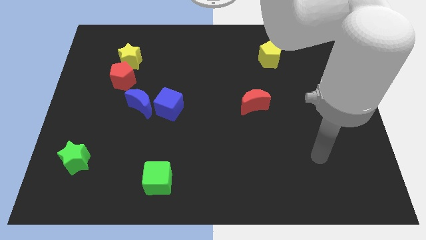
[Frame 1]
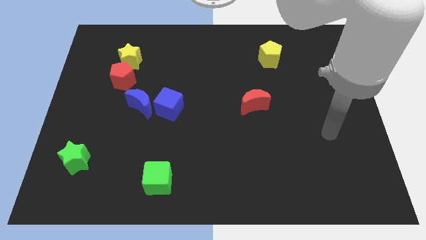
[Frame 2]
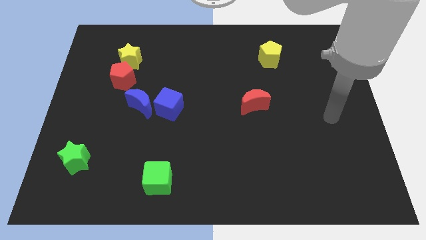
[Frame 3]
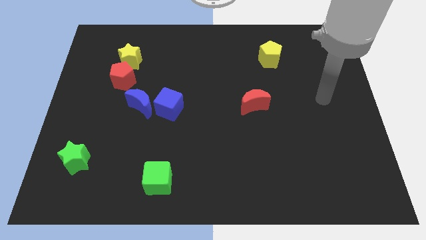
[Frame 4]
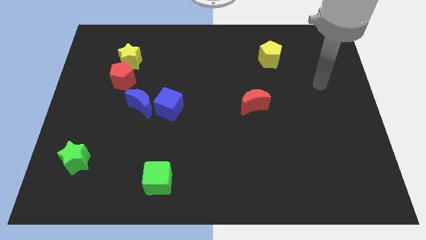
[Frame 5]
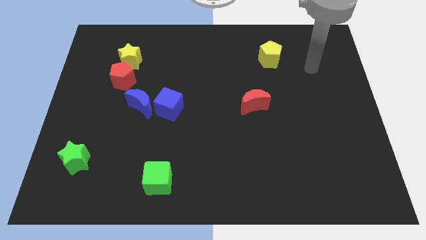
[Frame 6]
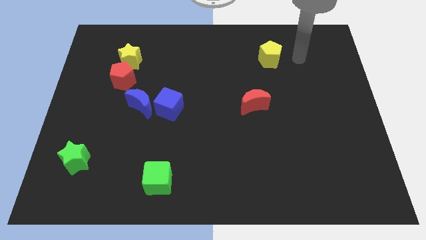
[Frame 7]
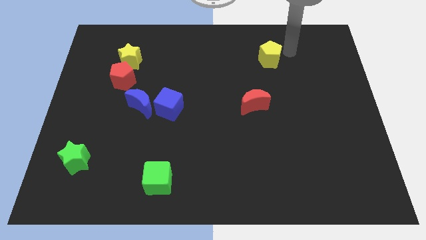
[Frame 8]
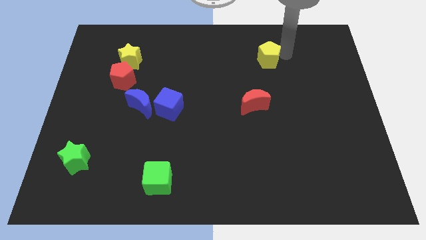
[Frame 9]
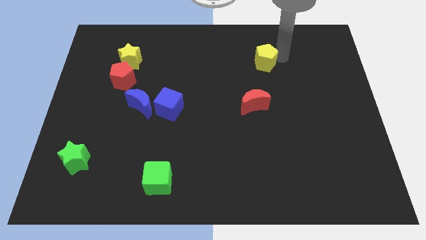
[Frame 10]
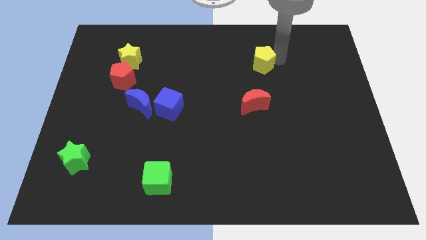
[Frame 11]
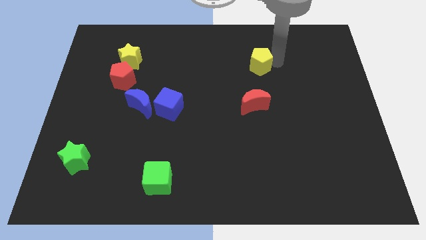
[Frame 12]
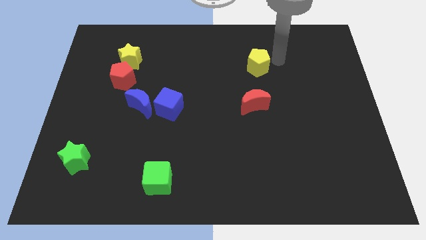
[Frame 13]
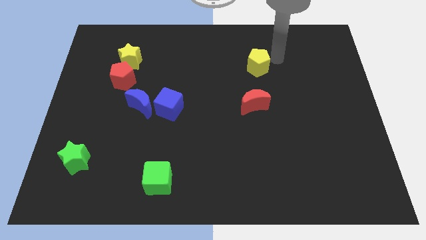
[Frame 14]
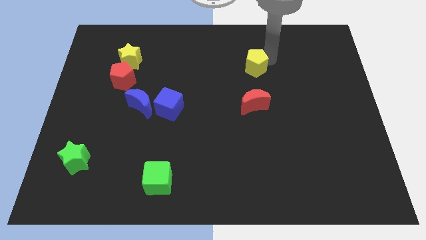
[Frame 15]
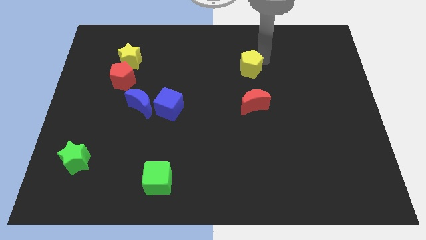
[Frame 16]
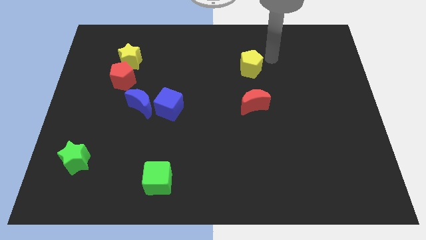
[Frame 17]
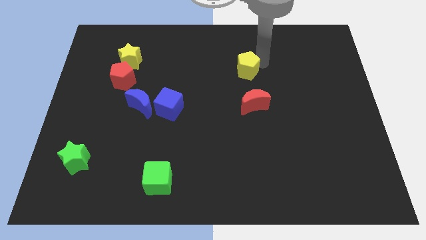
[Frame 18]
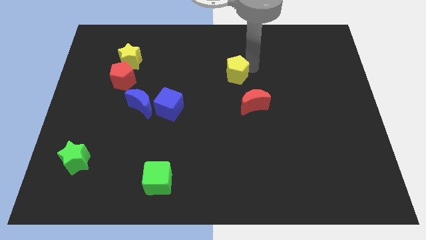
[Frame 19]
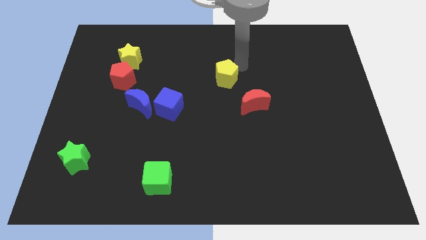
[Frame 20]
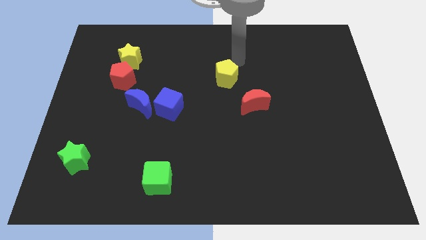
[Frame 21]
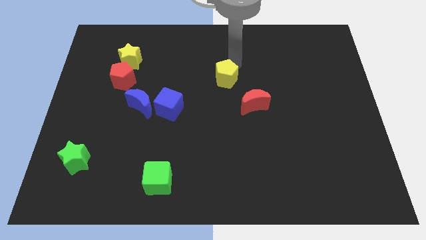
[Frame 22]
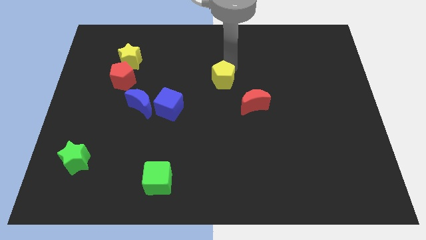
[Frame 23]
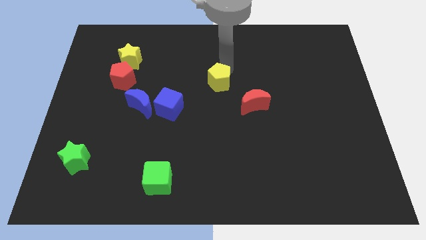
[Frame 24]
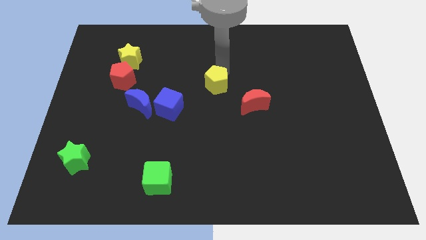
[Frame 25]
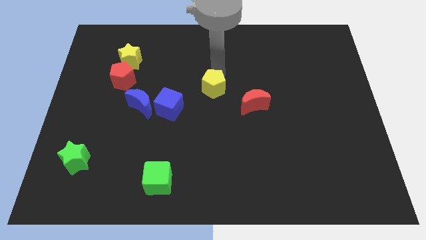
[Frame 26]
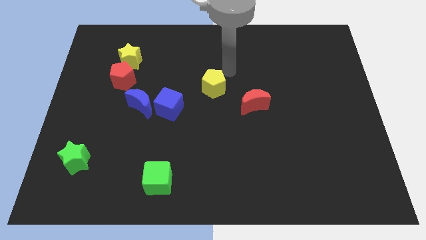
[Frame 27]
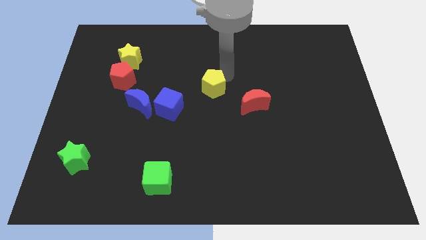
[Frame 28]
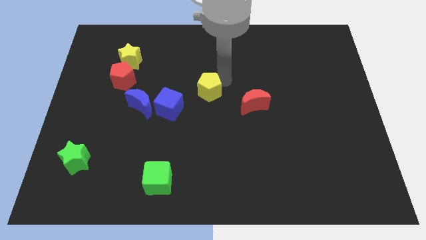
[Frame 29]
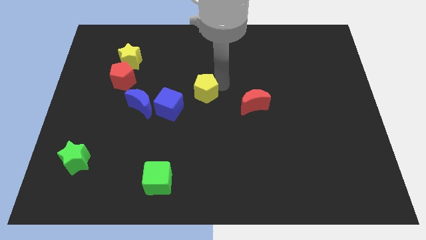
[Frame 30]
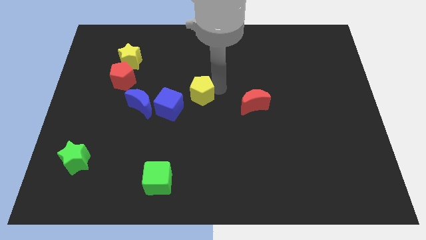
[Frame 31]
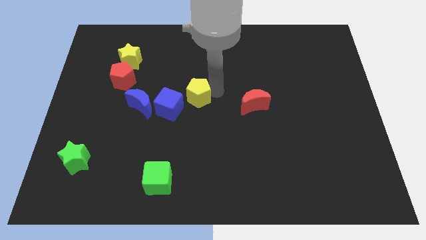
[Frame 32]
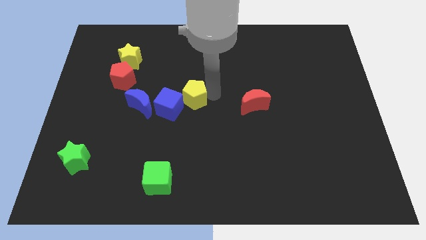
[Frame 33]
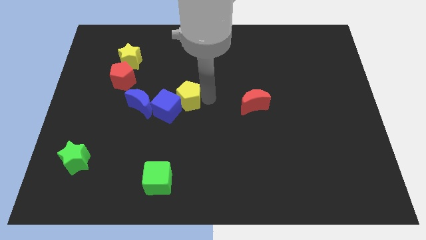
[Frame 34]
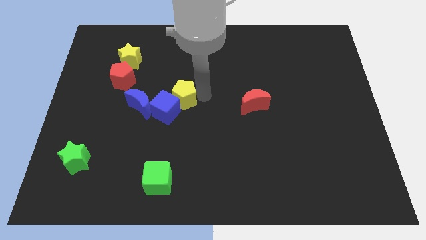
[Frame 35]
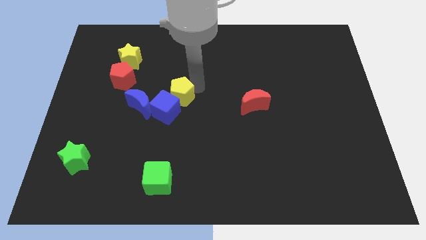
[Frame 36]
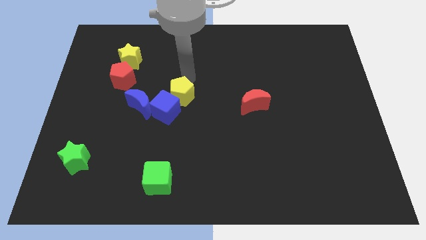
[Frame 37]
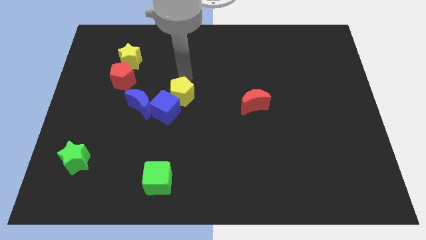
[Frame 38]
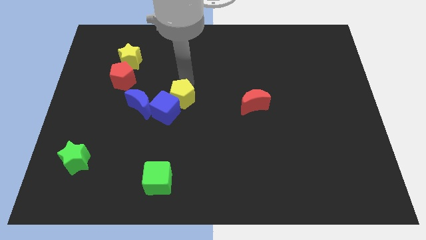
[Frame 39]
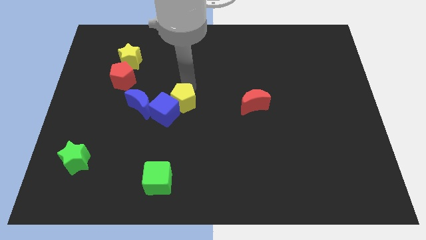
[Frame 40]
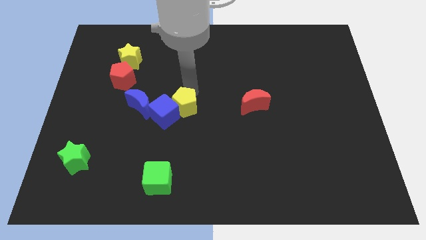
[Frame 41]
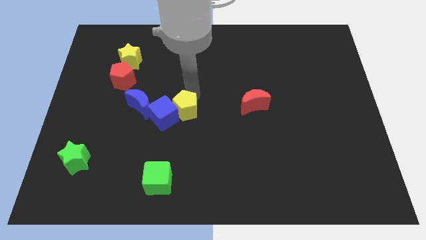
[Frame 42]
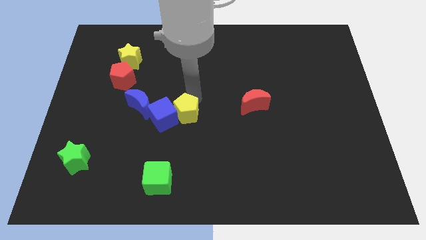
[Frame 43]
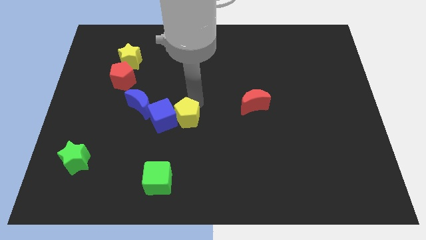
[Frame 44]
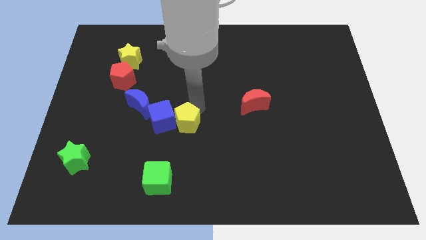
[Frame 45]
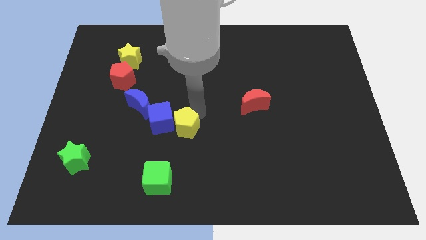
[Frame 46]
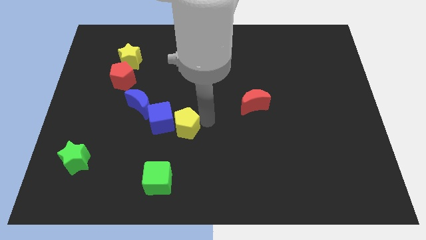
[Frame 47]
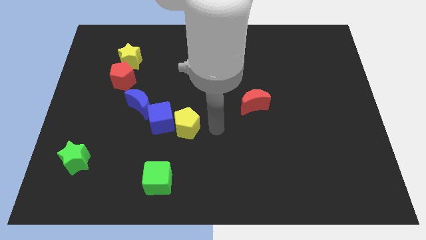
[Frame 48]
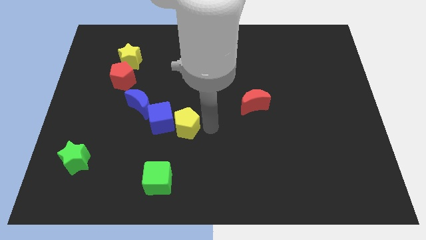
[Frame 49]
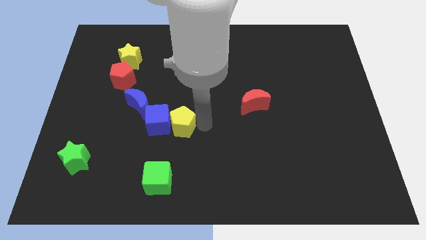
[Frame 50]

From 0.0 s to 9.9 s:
put the yellow pentagon to the bottom right of the blue moon

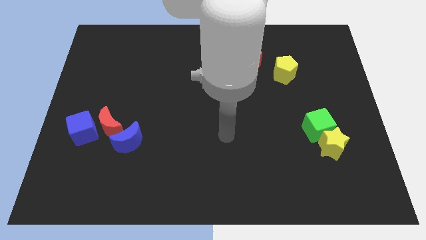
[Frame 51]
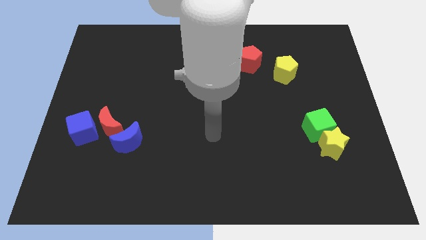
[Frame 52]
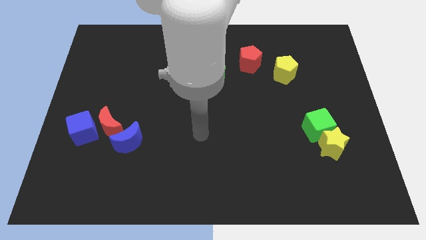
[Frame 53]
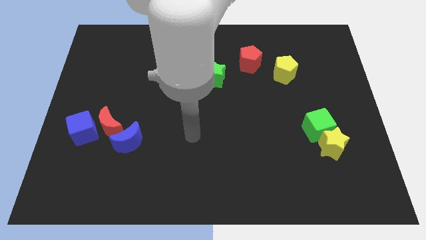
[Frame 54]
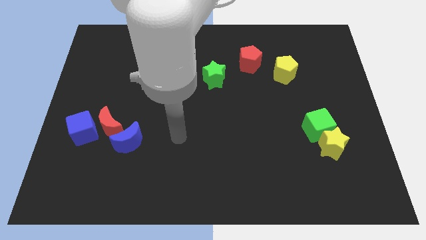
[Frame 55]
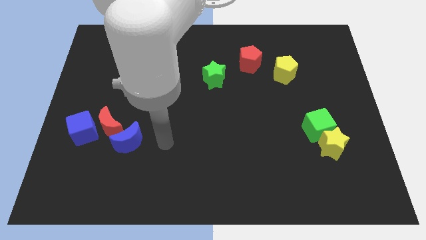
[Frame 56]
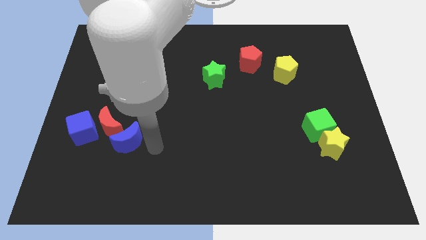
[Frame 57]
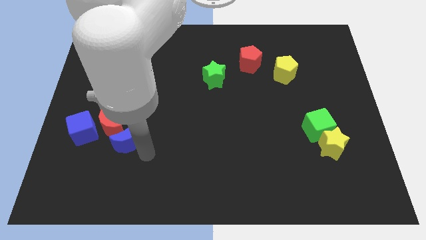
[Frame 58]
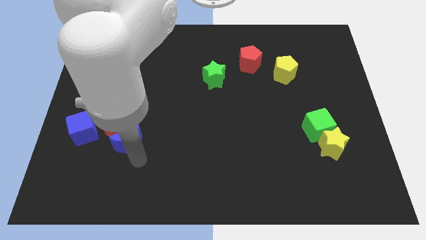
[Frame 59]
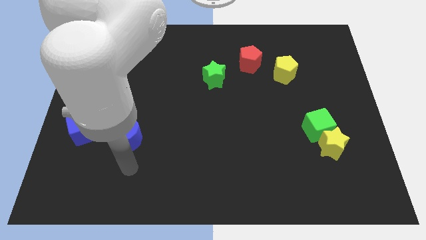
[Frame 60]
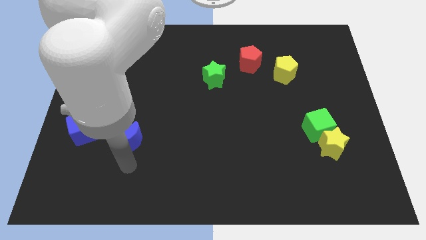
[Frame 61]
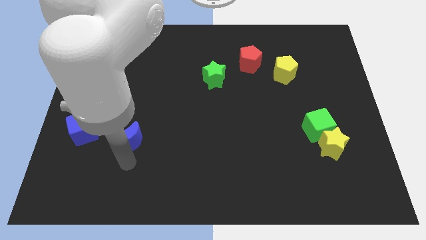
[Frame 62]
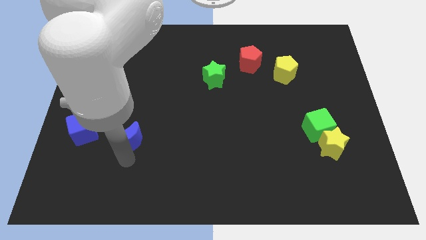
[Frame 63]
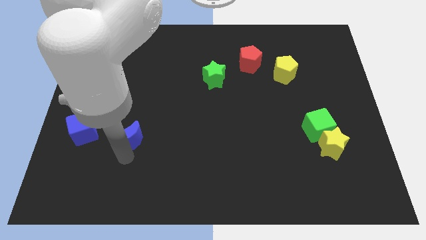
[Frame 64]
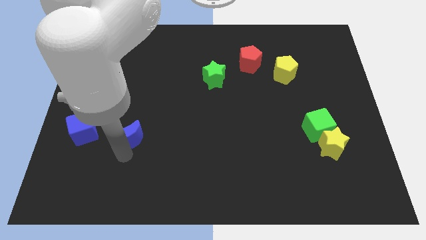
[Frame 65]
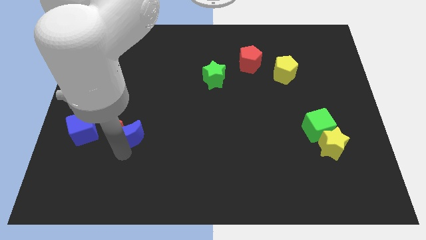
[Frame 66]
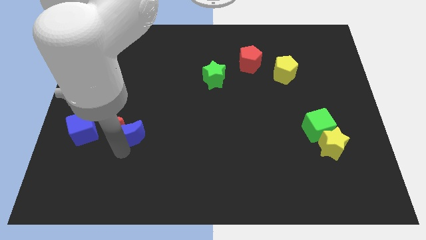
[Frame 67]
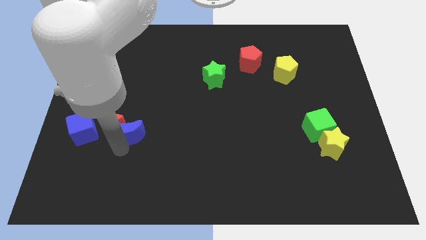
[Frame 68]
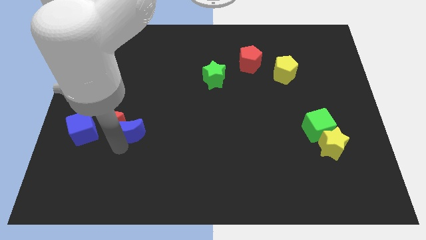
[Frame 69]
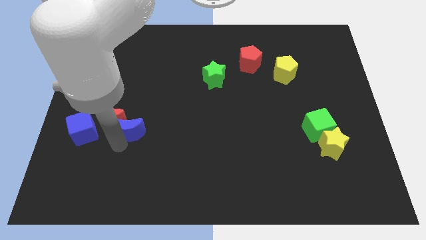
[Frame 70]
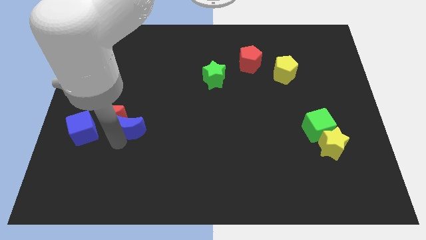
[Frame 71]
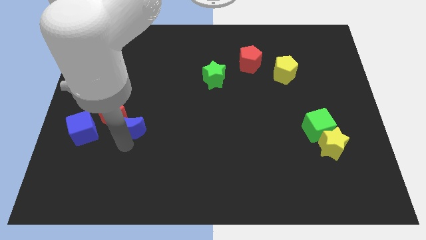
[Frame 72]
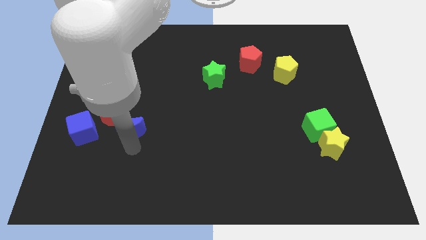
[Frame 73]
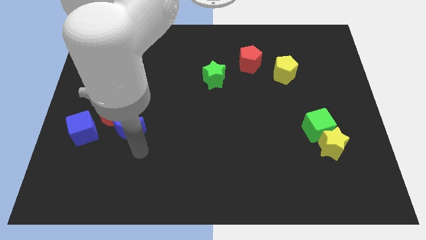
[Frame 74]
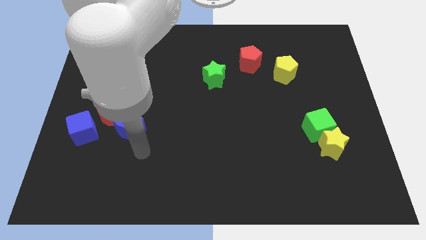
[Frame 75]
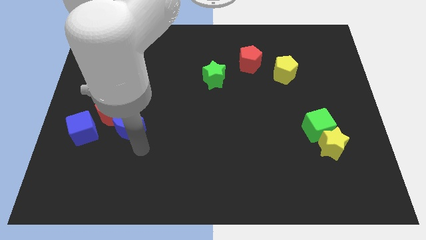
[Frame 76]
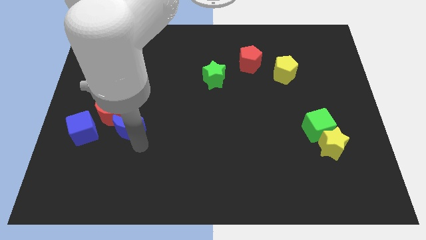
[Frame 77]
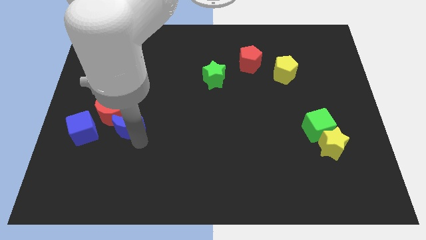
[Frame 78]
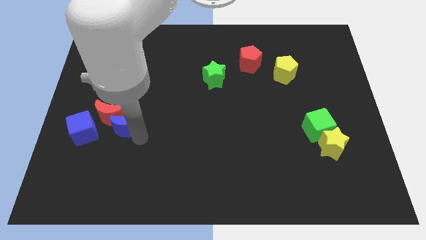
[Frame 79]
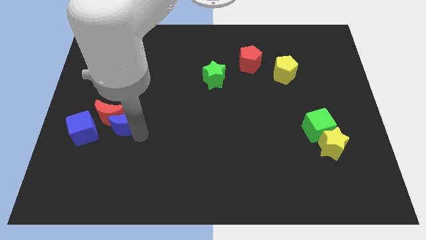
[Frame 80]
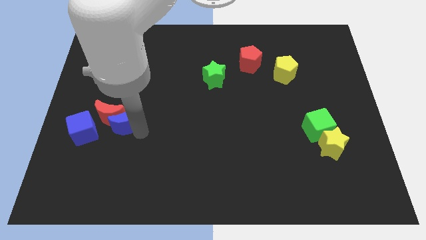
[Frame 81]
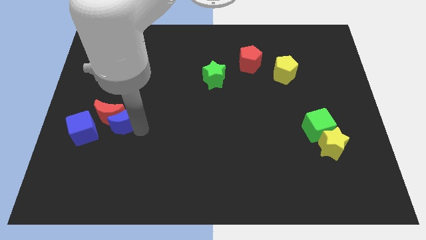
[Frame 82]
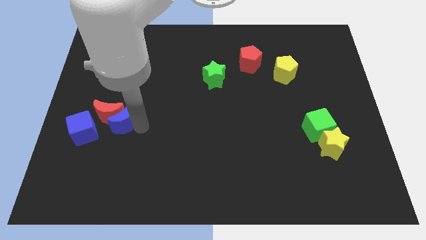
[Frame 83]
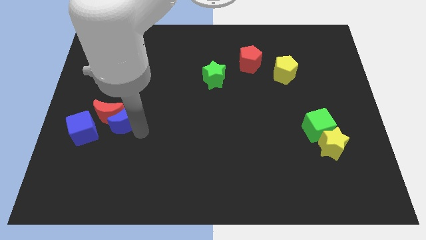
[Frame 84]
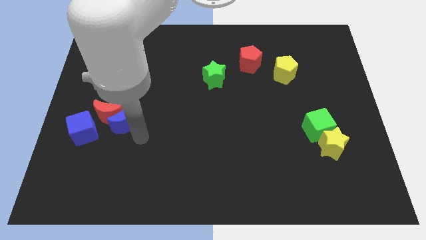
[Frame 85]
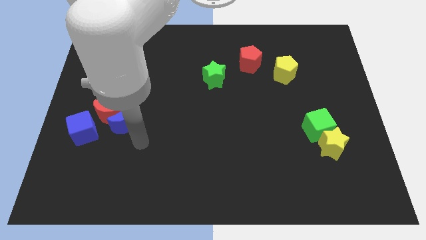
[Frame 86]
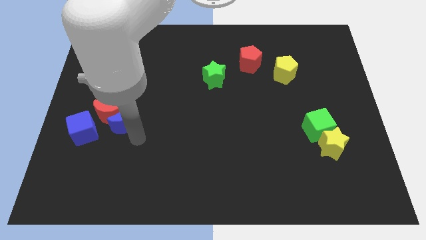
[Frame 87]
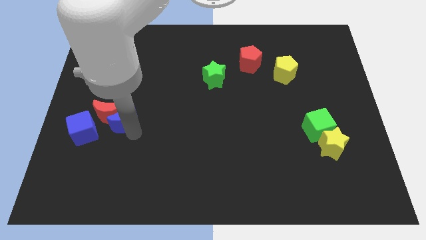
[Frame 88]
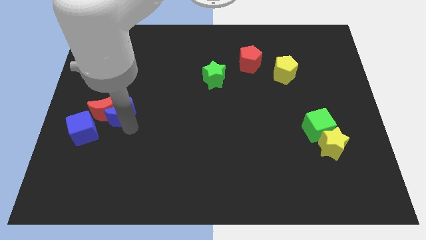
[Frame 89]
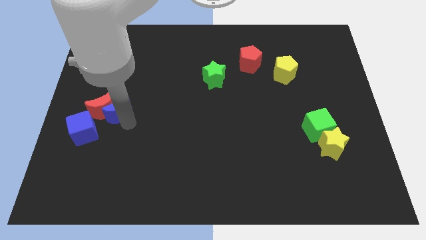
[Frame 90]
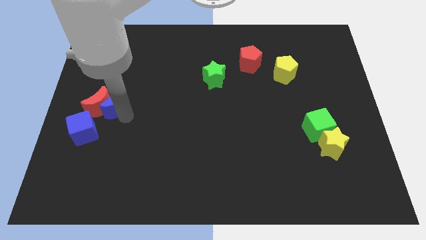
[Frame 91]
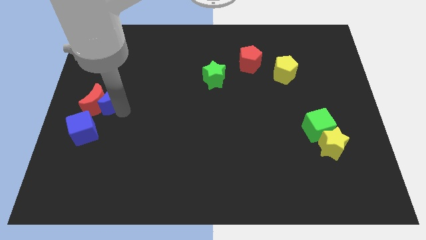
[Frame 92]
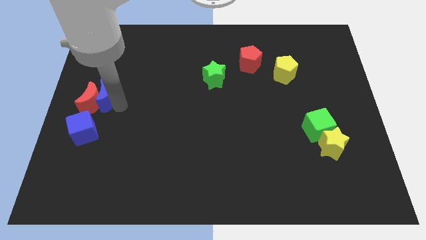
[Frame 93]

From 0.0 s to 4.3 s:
move the blue moon to the top of the blue cube
